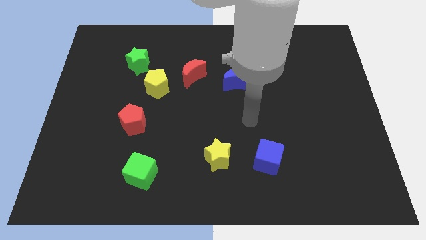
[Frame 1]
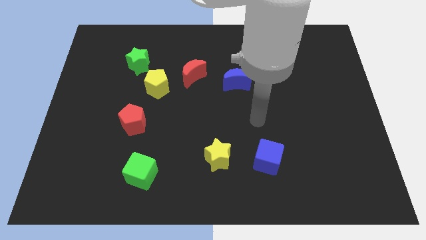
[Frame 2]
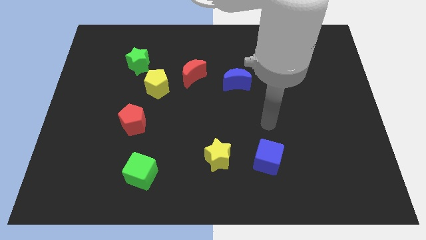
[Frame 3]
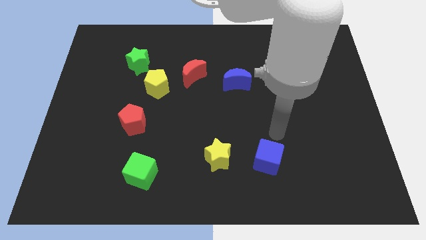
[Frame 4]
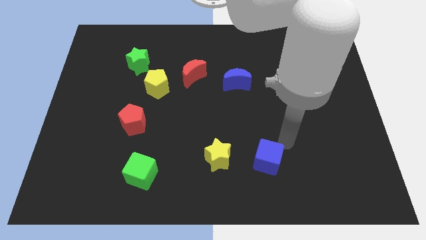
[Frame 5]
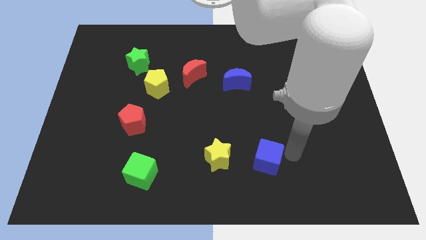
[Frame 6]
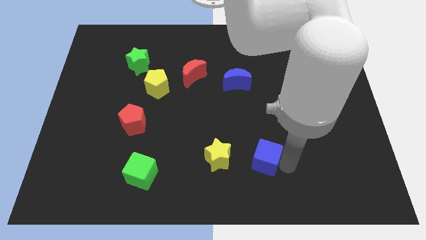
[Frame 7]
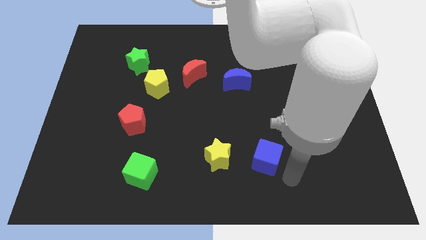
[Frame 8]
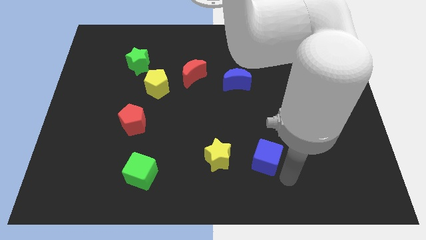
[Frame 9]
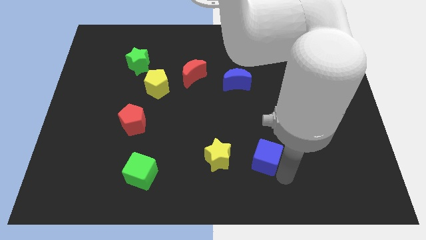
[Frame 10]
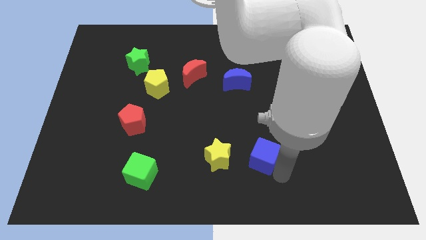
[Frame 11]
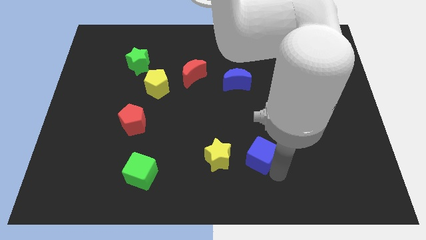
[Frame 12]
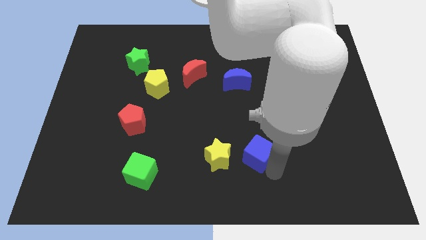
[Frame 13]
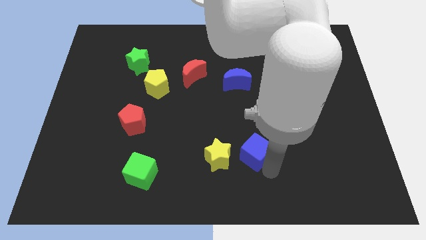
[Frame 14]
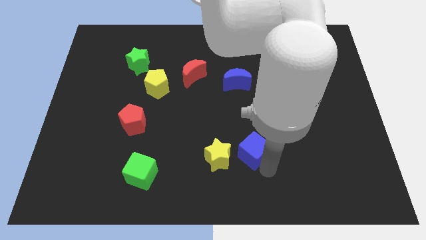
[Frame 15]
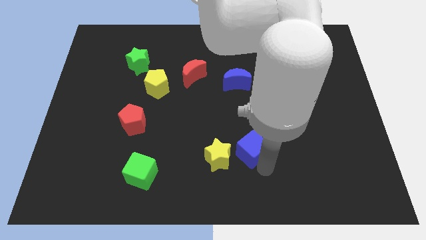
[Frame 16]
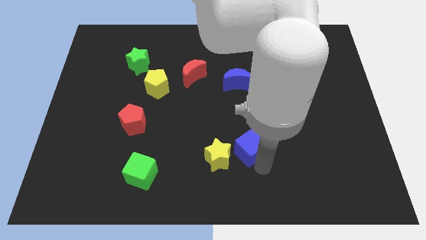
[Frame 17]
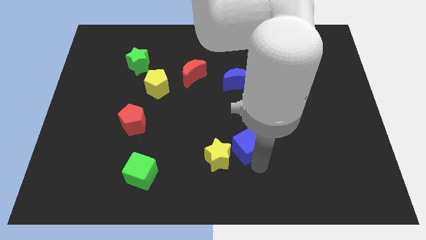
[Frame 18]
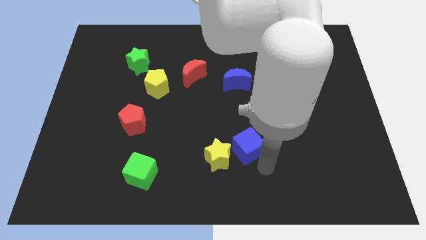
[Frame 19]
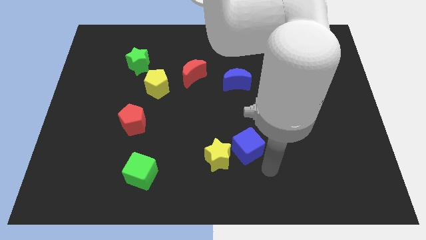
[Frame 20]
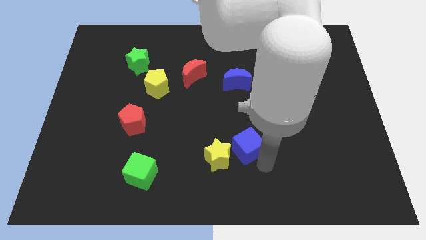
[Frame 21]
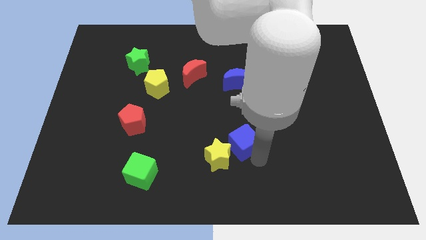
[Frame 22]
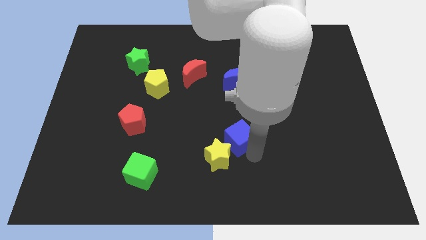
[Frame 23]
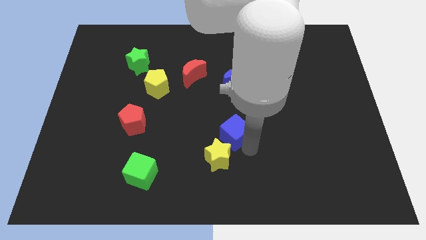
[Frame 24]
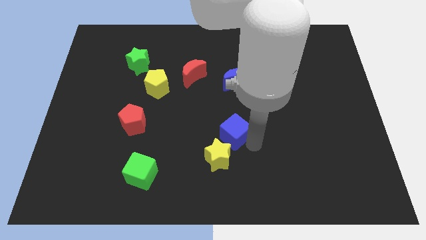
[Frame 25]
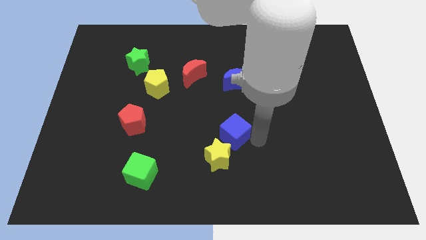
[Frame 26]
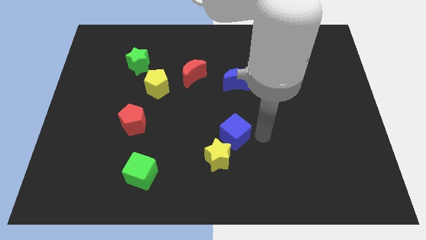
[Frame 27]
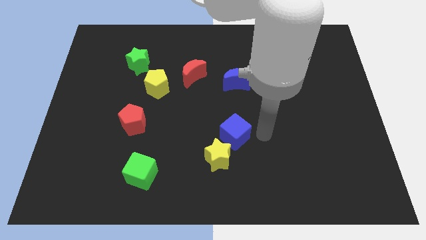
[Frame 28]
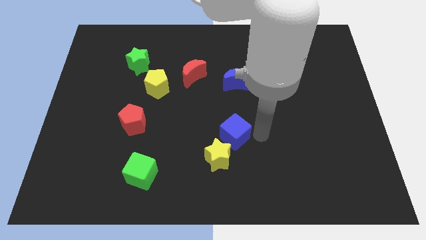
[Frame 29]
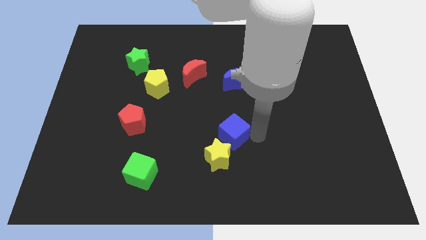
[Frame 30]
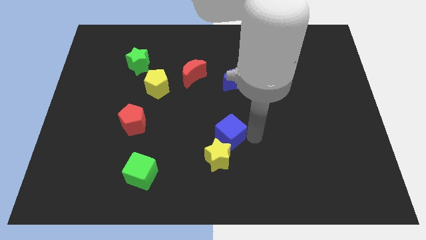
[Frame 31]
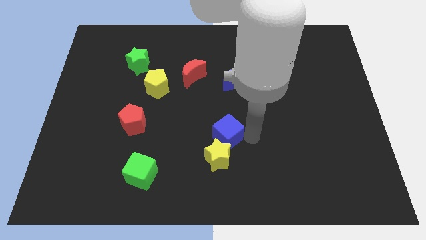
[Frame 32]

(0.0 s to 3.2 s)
move the blue cube left a little

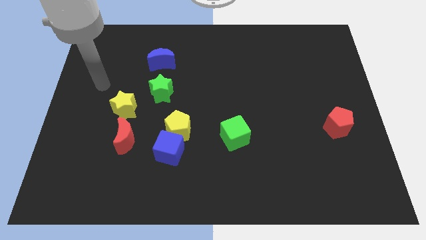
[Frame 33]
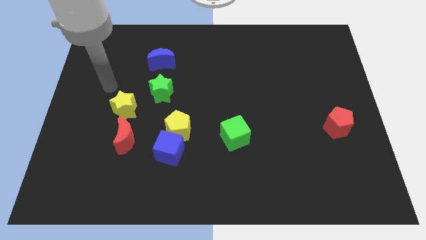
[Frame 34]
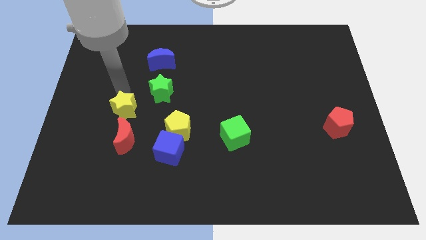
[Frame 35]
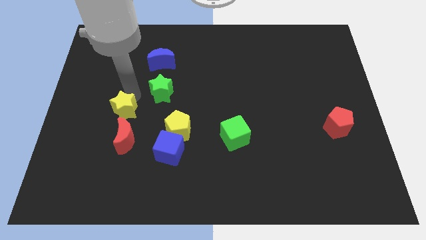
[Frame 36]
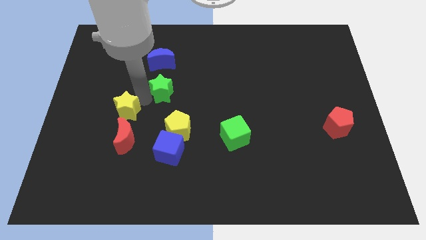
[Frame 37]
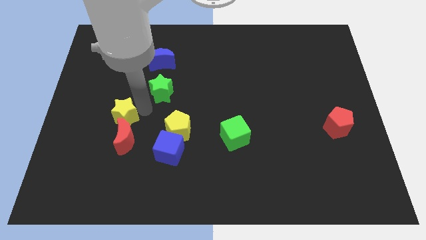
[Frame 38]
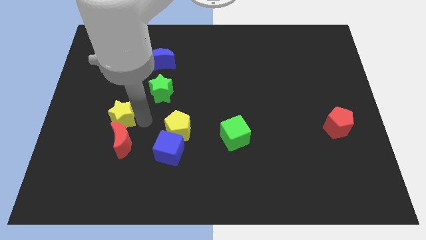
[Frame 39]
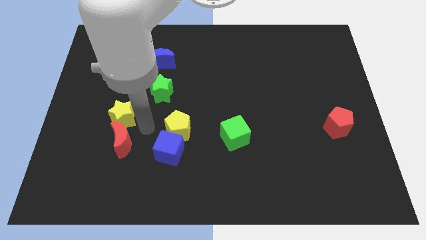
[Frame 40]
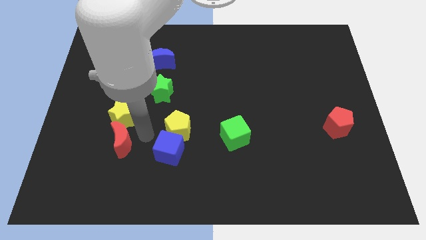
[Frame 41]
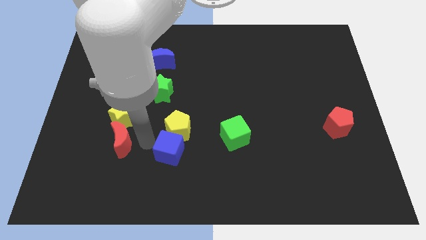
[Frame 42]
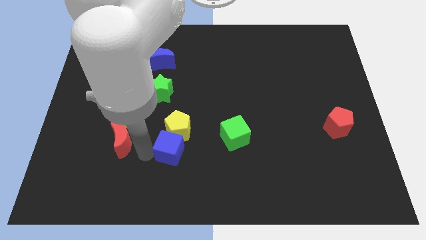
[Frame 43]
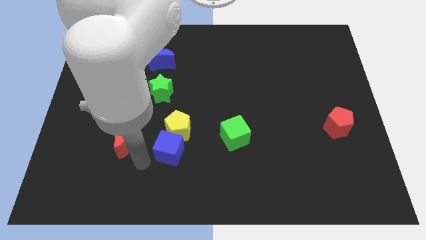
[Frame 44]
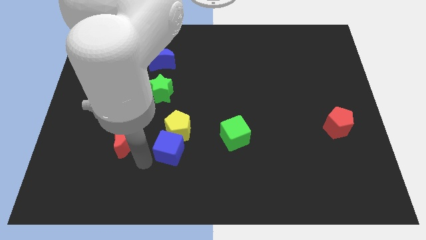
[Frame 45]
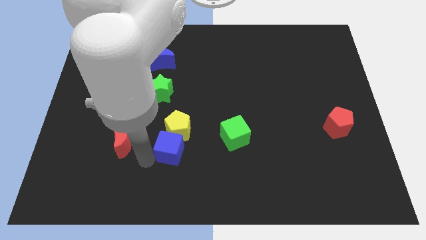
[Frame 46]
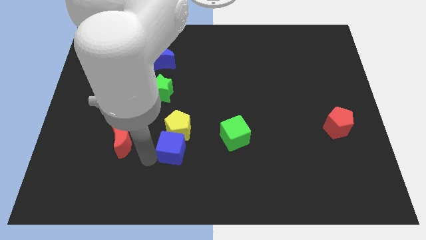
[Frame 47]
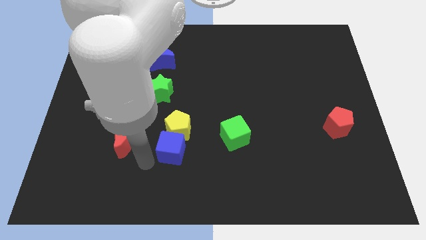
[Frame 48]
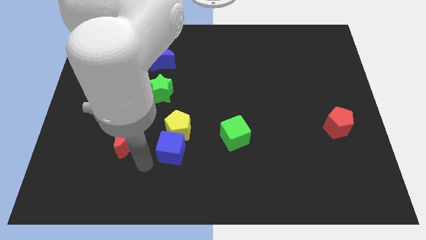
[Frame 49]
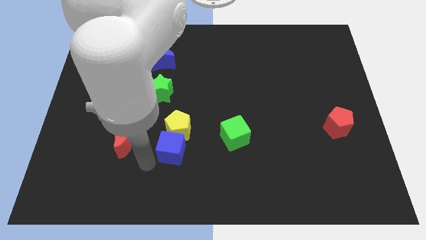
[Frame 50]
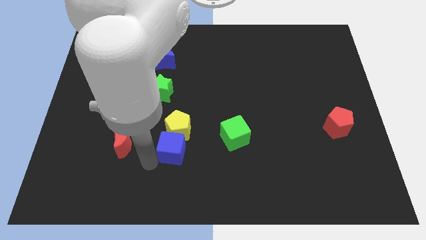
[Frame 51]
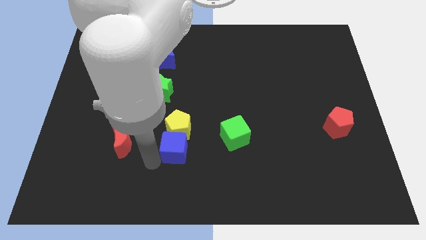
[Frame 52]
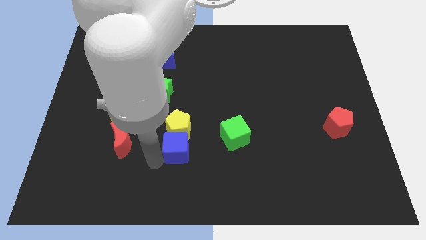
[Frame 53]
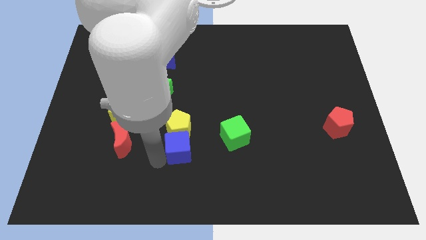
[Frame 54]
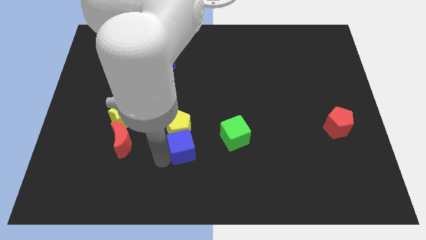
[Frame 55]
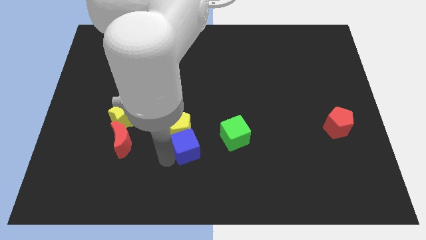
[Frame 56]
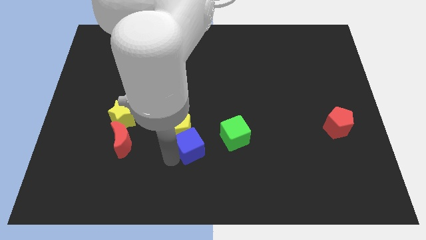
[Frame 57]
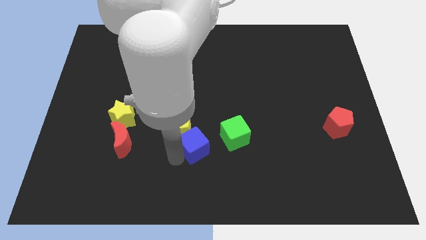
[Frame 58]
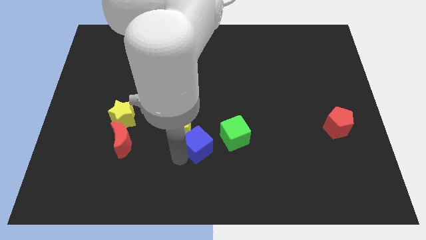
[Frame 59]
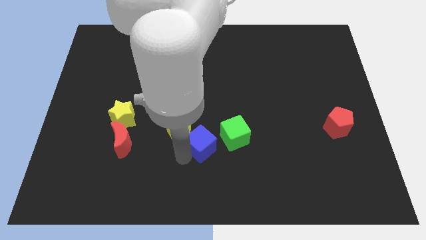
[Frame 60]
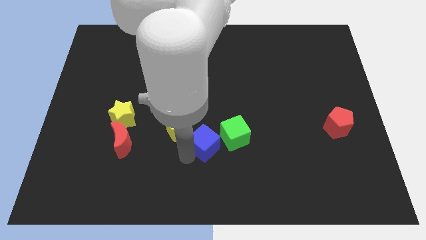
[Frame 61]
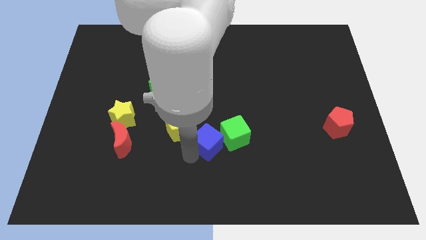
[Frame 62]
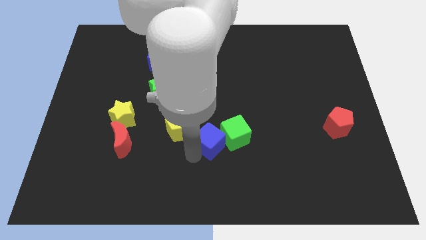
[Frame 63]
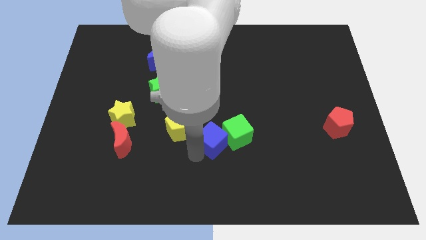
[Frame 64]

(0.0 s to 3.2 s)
push the blue cube upwards and to the right a bit

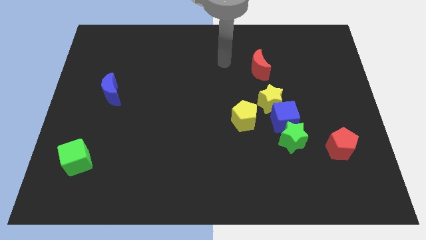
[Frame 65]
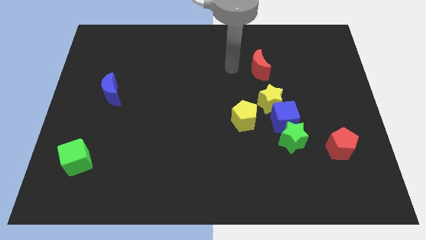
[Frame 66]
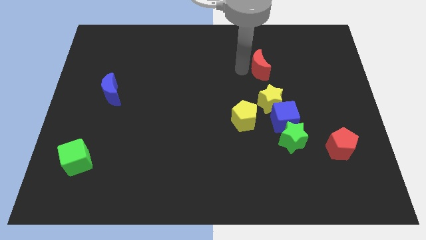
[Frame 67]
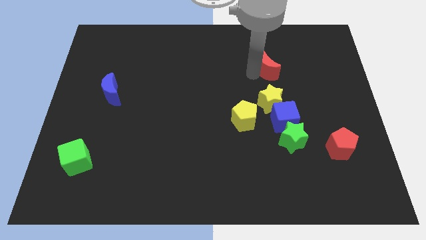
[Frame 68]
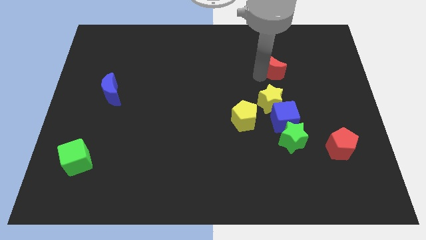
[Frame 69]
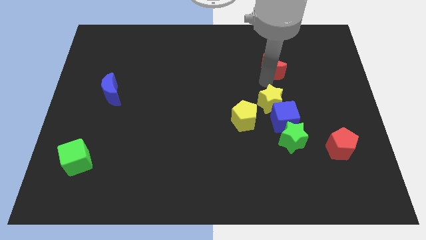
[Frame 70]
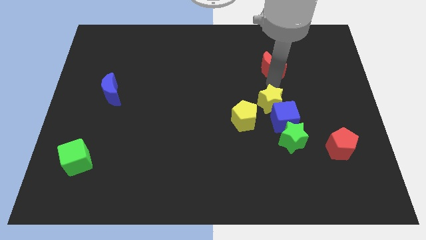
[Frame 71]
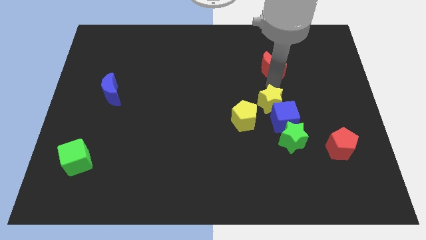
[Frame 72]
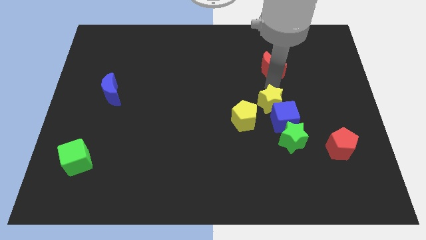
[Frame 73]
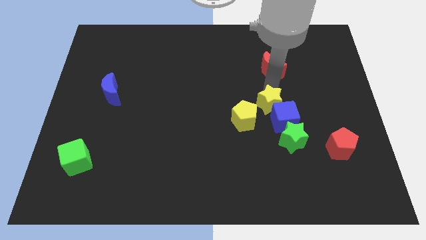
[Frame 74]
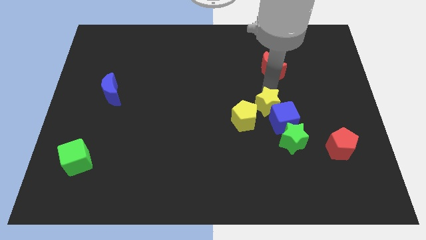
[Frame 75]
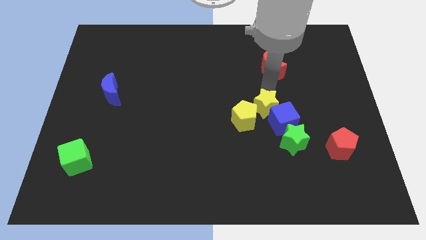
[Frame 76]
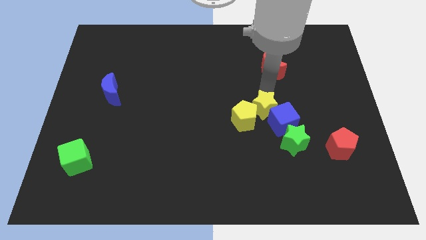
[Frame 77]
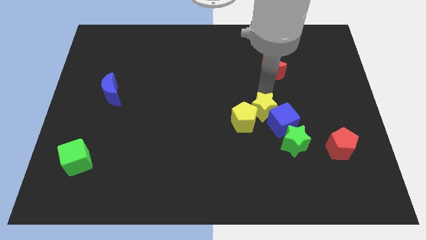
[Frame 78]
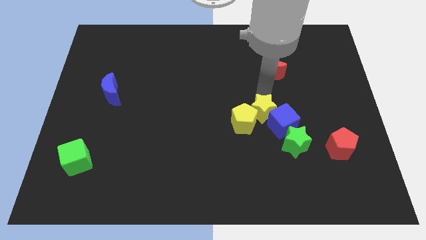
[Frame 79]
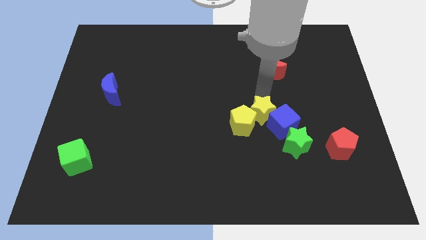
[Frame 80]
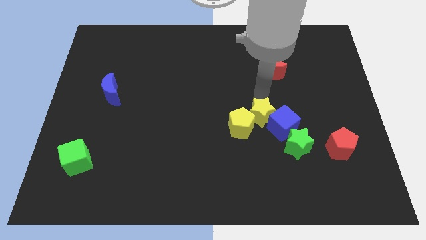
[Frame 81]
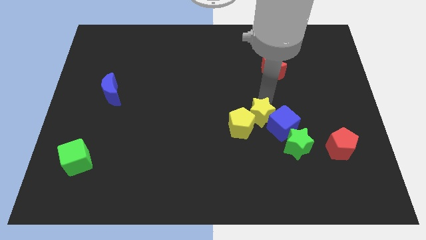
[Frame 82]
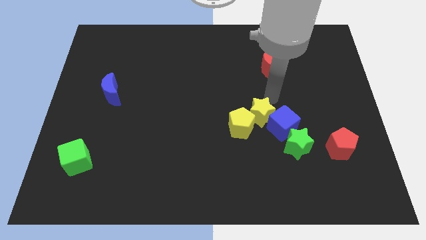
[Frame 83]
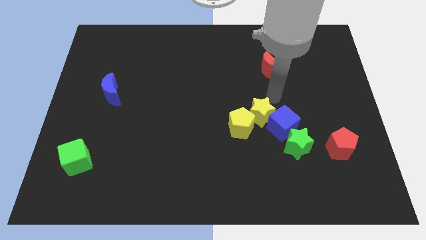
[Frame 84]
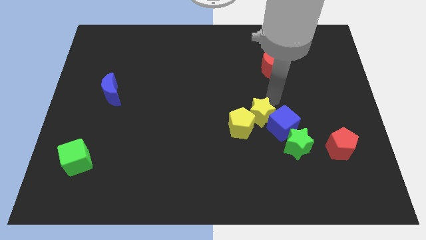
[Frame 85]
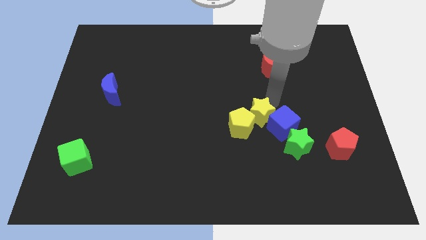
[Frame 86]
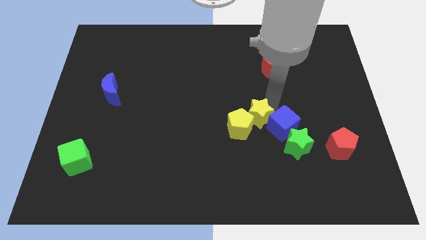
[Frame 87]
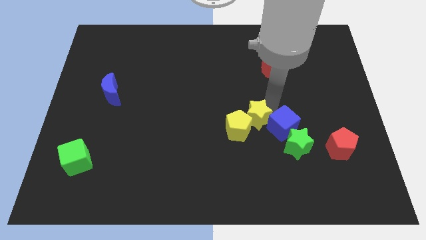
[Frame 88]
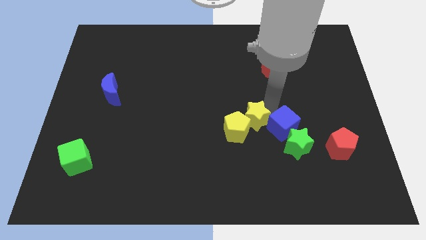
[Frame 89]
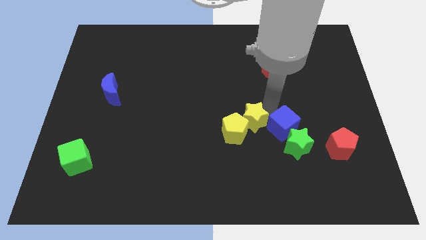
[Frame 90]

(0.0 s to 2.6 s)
slide the yellow star a little down and then to the left
